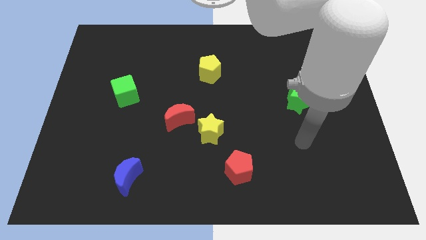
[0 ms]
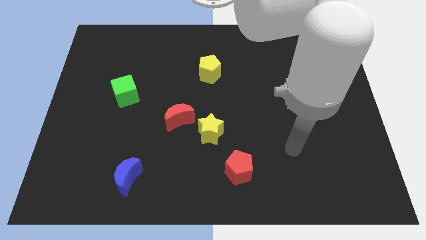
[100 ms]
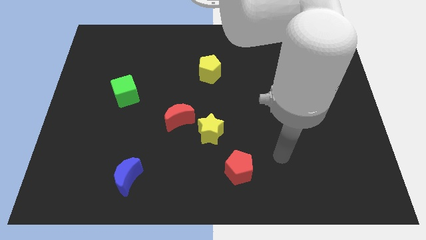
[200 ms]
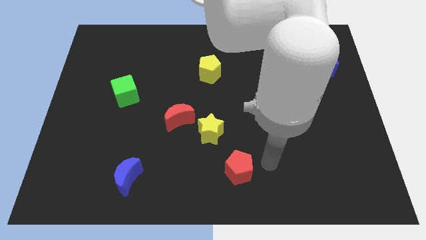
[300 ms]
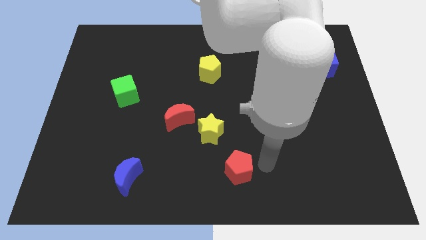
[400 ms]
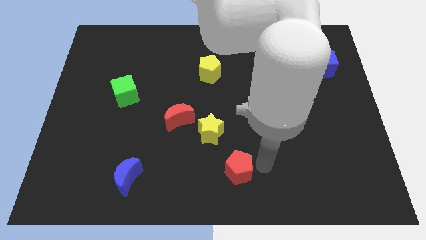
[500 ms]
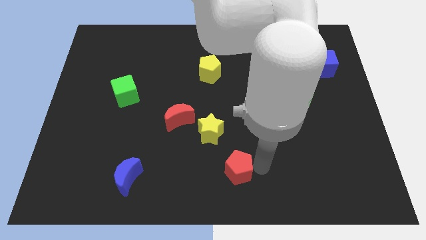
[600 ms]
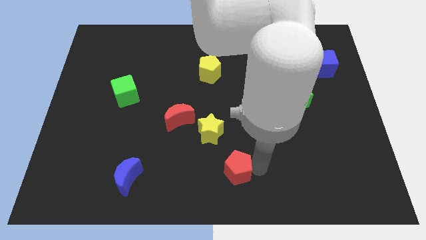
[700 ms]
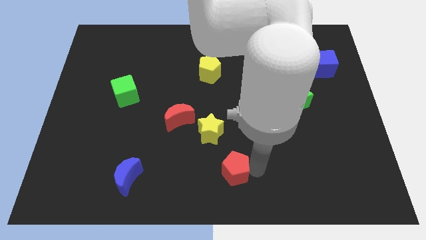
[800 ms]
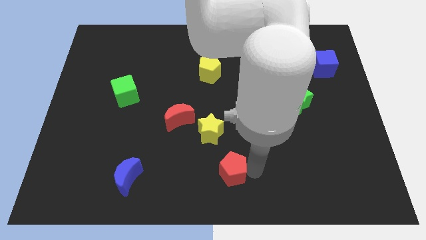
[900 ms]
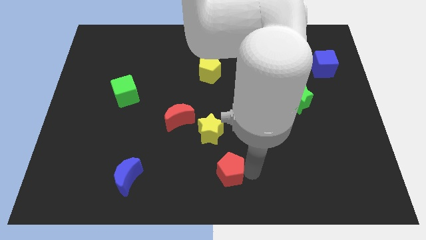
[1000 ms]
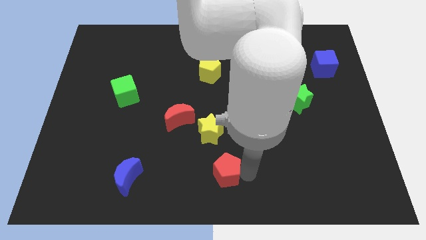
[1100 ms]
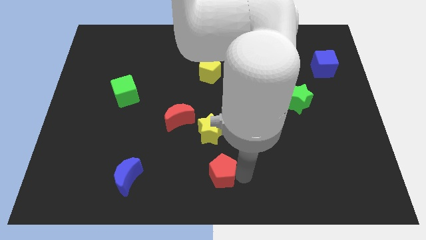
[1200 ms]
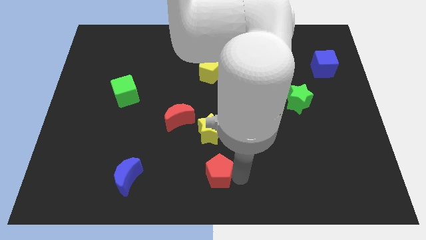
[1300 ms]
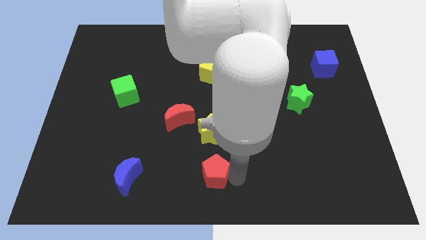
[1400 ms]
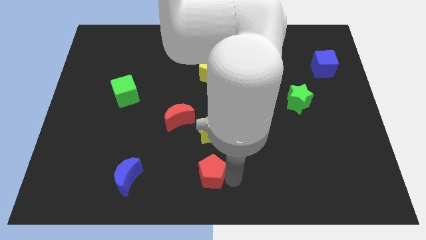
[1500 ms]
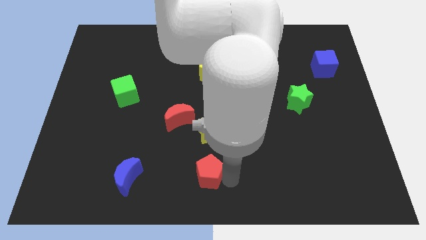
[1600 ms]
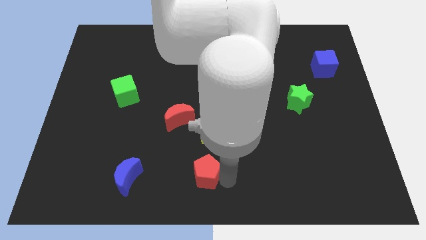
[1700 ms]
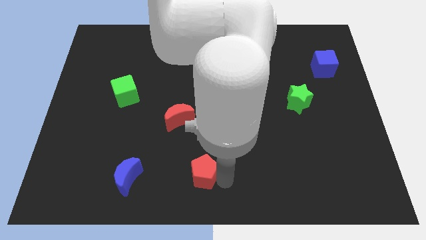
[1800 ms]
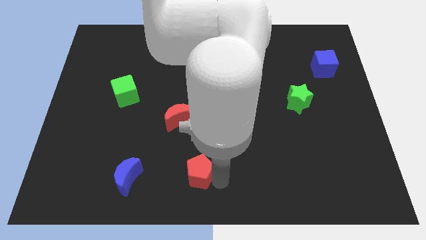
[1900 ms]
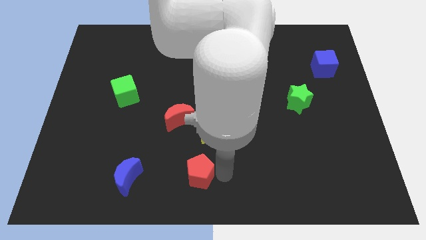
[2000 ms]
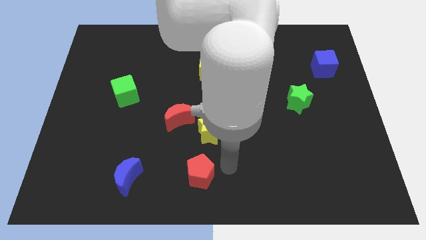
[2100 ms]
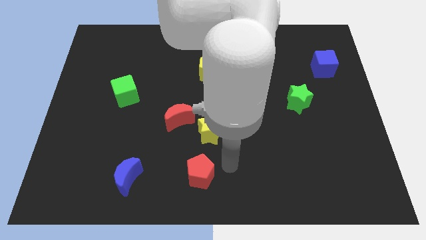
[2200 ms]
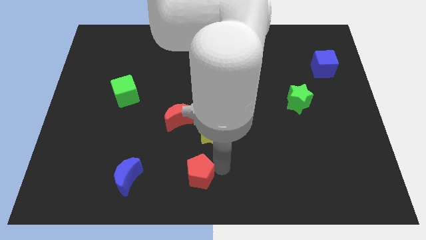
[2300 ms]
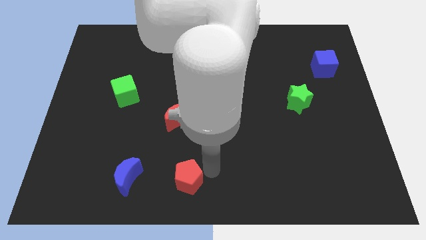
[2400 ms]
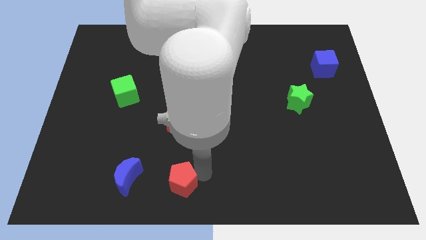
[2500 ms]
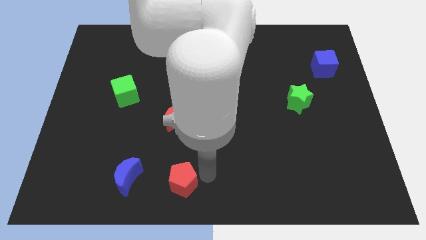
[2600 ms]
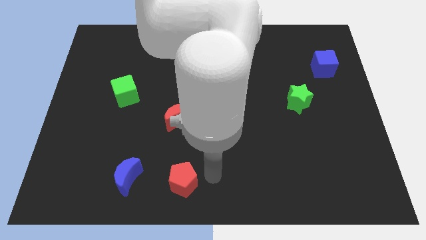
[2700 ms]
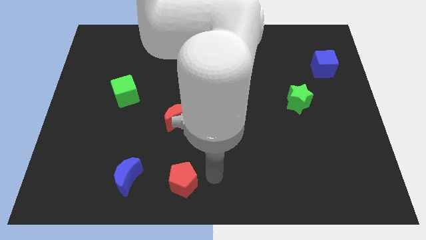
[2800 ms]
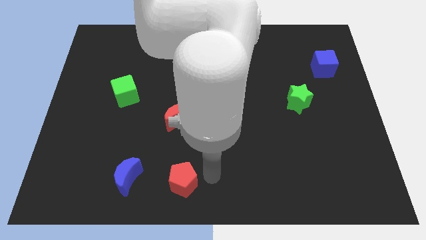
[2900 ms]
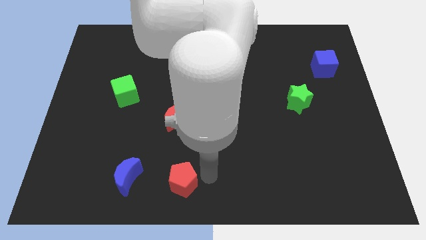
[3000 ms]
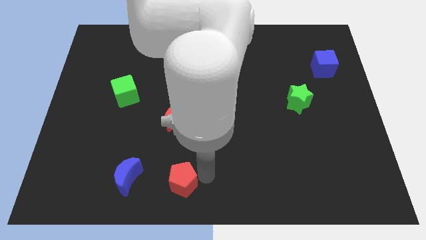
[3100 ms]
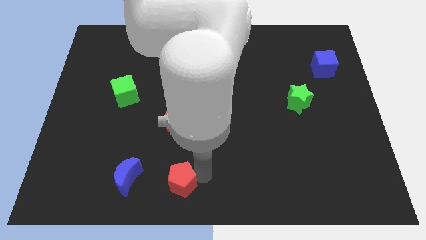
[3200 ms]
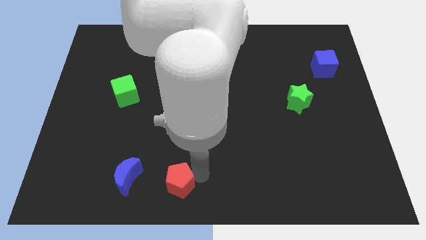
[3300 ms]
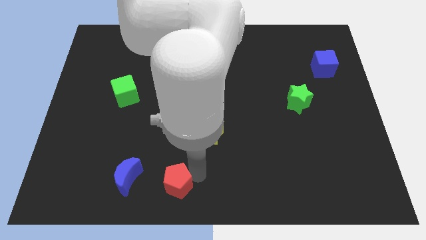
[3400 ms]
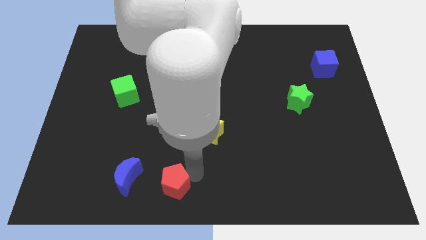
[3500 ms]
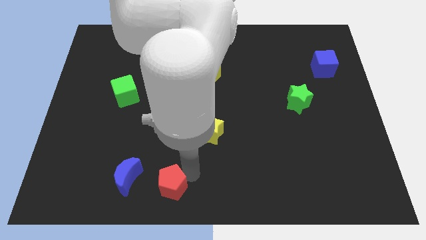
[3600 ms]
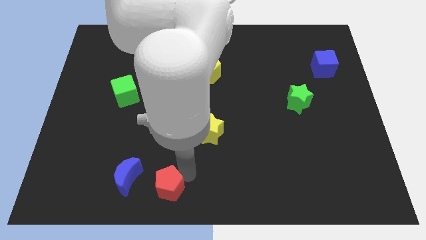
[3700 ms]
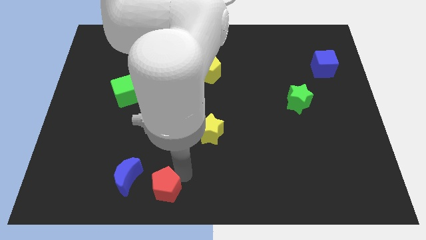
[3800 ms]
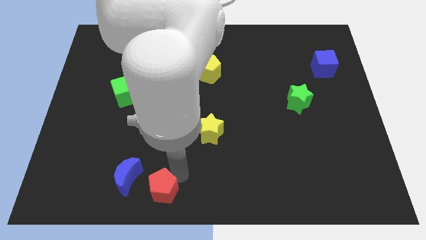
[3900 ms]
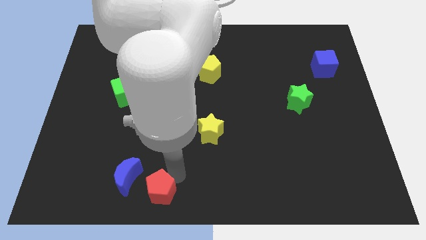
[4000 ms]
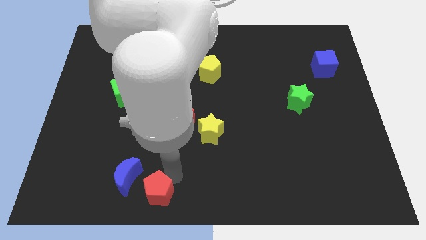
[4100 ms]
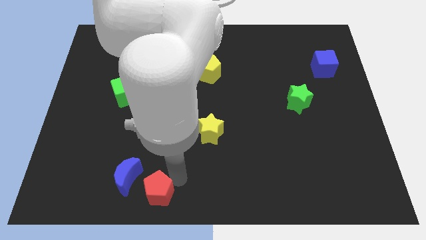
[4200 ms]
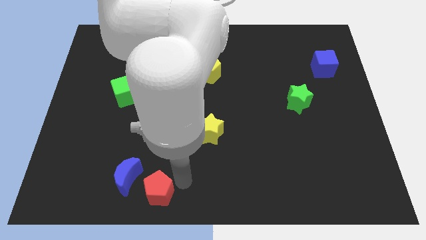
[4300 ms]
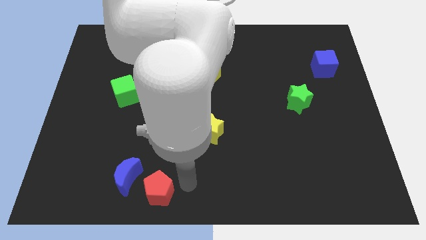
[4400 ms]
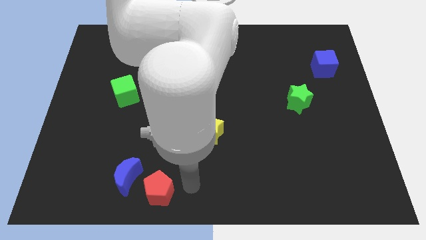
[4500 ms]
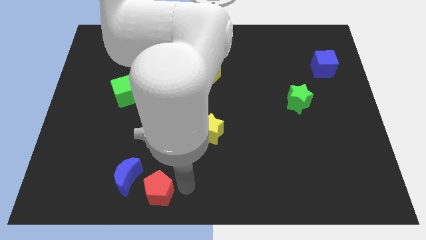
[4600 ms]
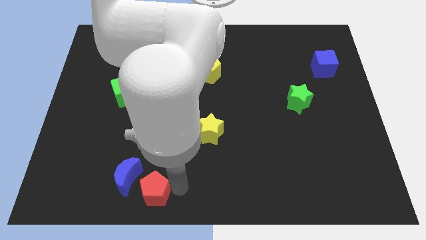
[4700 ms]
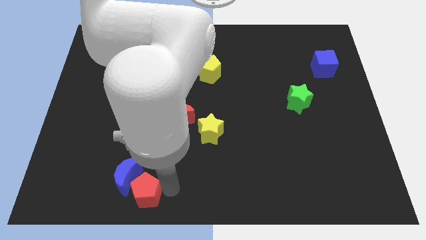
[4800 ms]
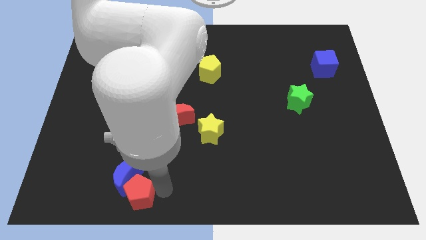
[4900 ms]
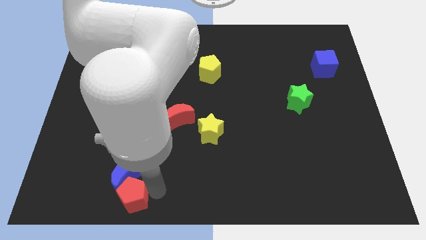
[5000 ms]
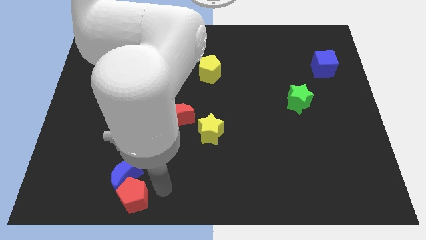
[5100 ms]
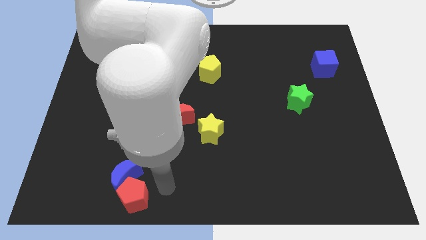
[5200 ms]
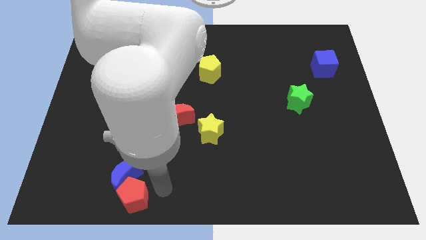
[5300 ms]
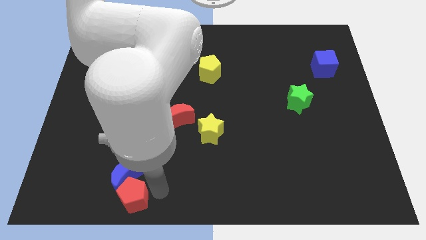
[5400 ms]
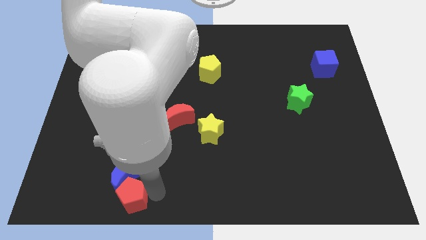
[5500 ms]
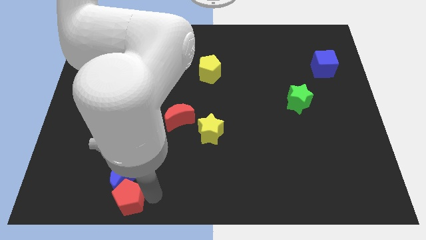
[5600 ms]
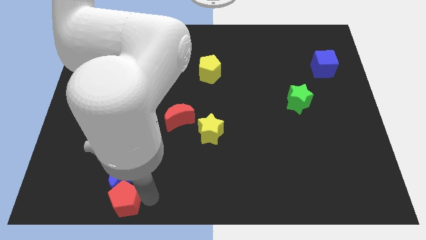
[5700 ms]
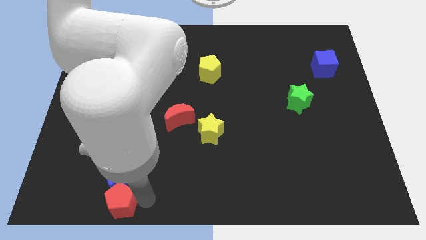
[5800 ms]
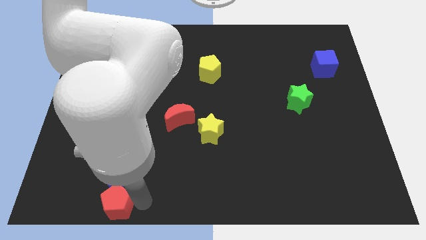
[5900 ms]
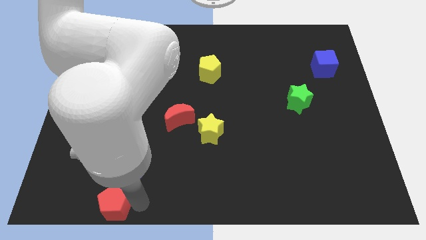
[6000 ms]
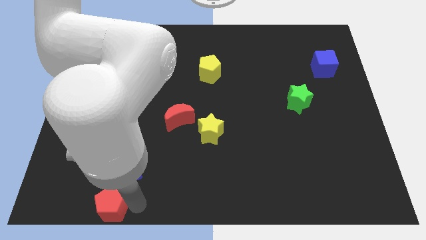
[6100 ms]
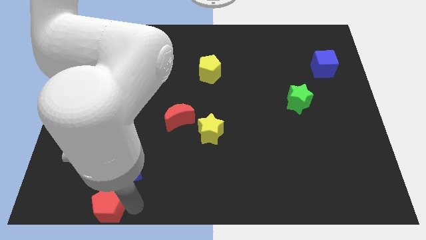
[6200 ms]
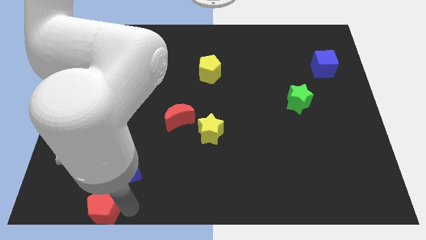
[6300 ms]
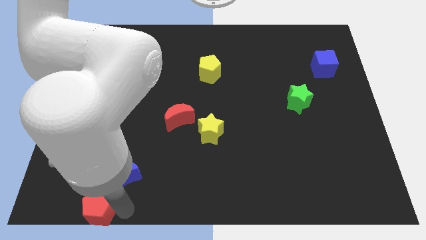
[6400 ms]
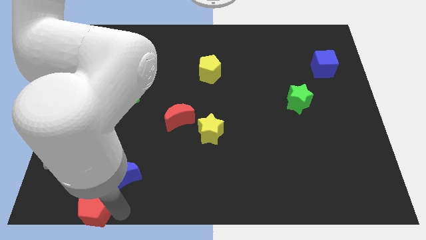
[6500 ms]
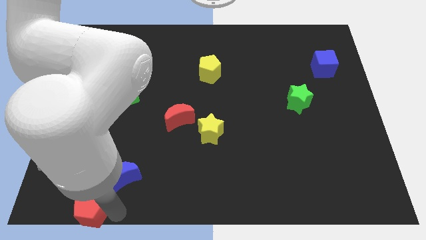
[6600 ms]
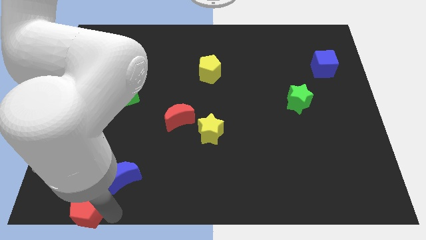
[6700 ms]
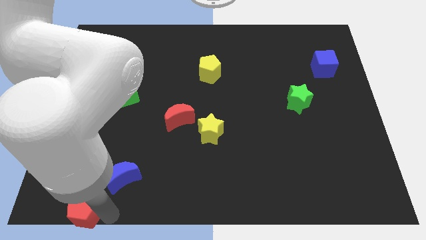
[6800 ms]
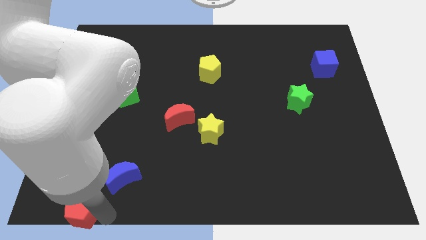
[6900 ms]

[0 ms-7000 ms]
move the red pentagon to the bottom left corner
